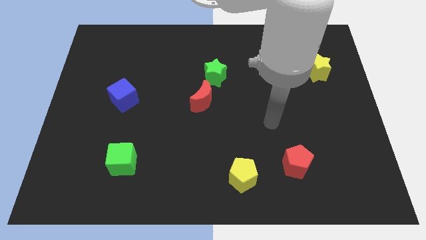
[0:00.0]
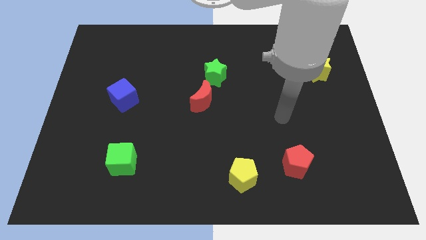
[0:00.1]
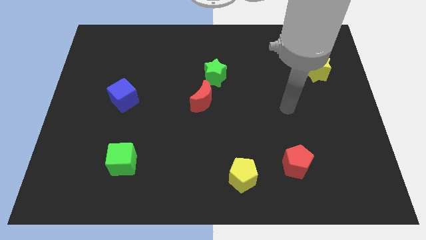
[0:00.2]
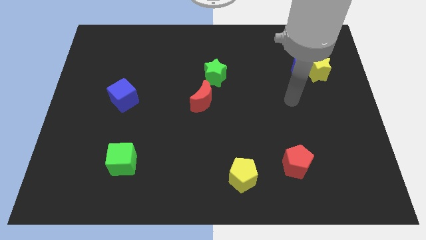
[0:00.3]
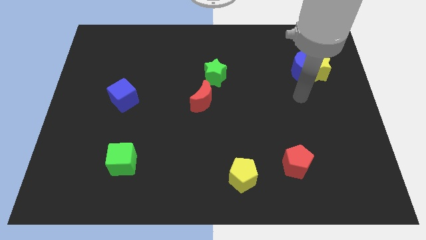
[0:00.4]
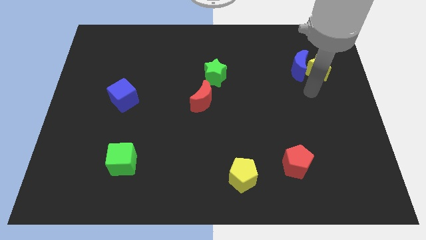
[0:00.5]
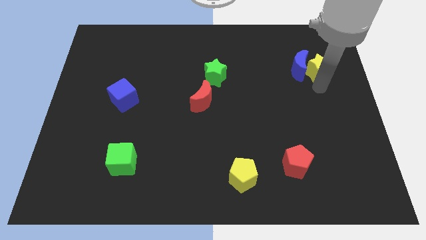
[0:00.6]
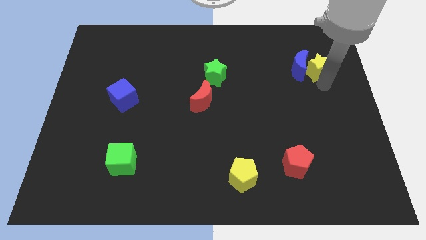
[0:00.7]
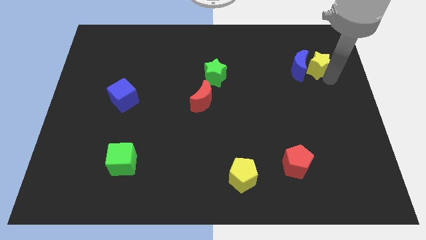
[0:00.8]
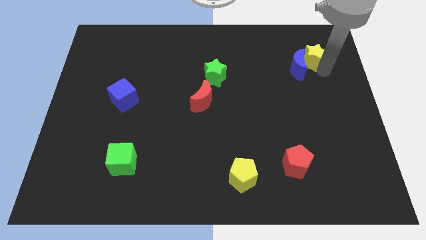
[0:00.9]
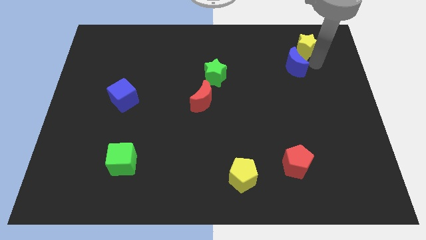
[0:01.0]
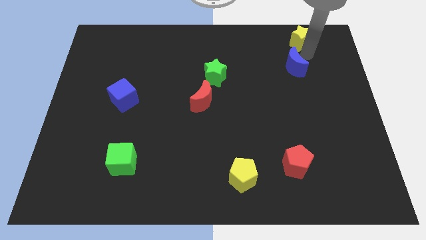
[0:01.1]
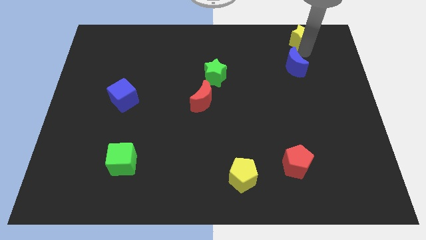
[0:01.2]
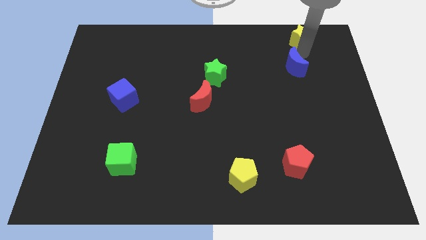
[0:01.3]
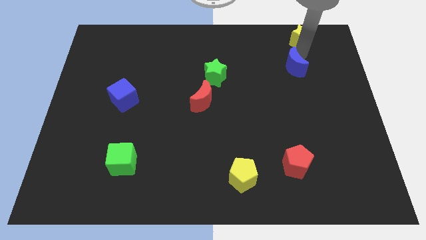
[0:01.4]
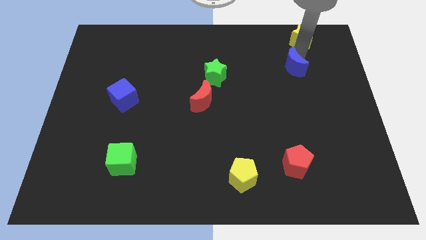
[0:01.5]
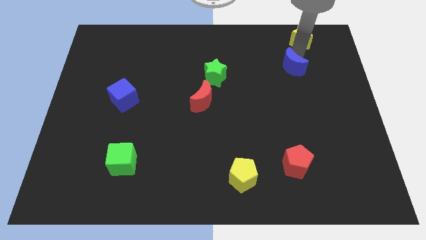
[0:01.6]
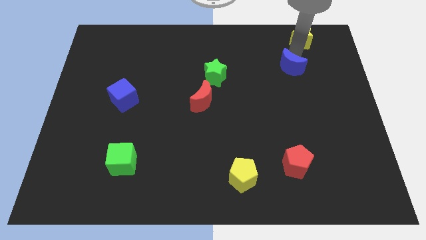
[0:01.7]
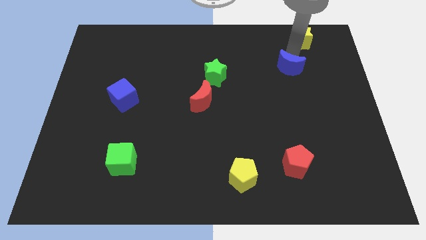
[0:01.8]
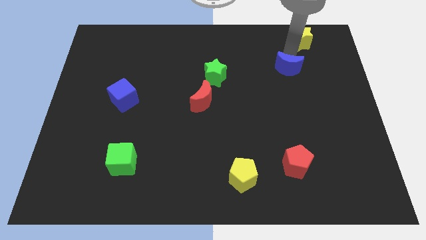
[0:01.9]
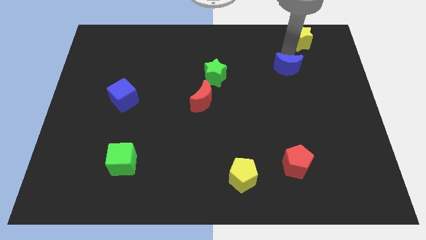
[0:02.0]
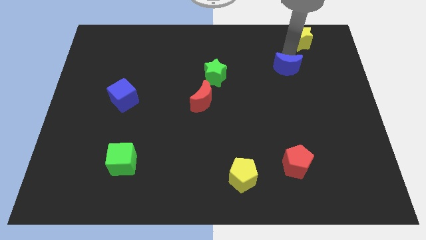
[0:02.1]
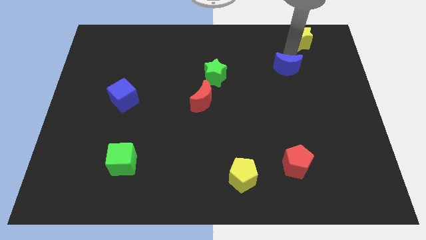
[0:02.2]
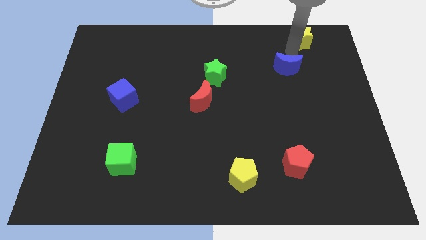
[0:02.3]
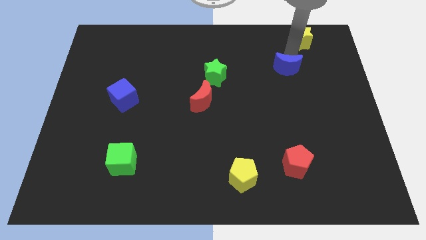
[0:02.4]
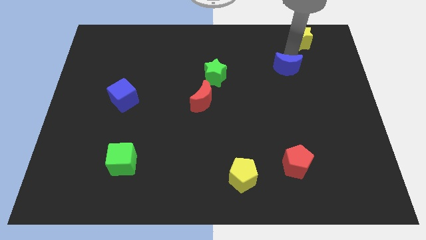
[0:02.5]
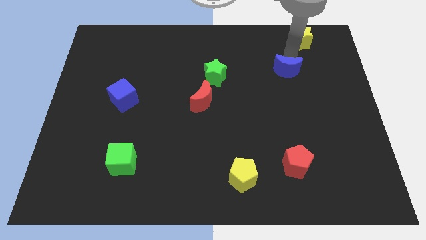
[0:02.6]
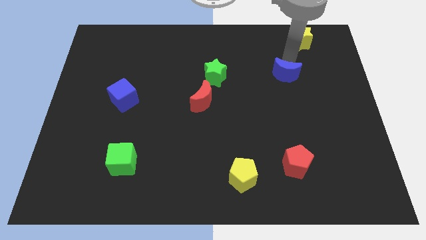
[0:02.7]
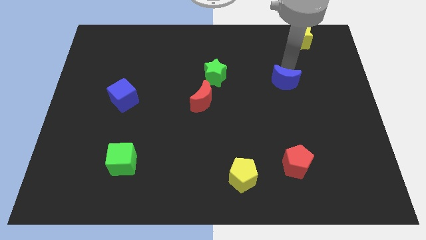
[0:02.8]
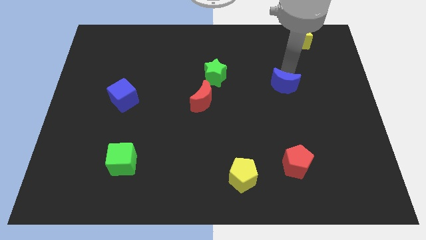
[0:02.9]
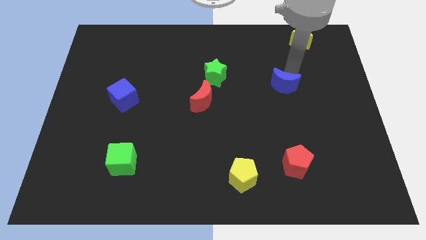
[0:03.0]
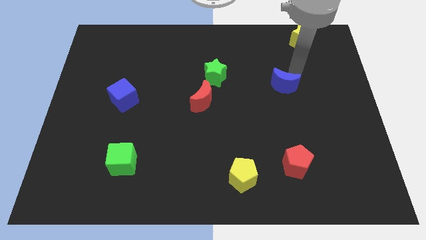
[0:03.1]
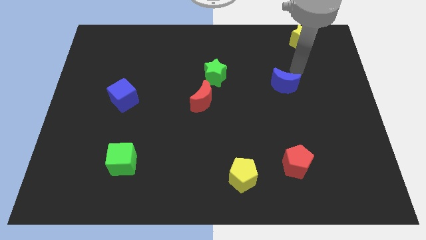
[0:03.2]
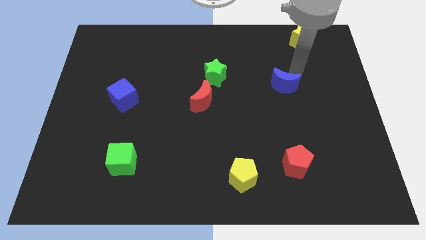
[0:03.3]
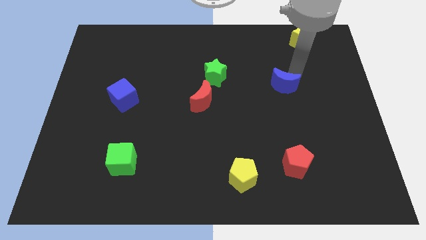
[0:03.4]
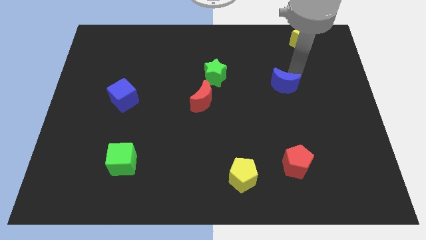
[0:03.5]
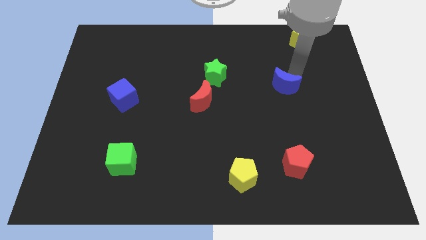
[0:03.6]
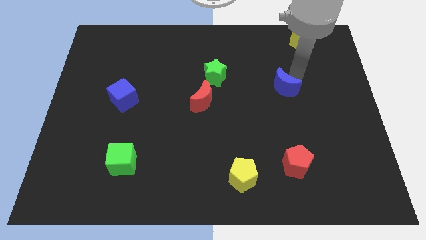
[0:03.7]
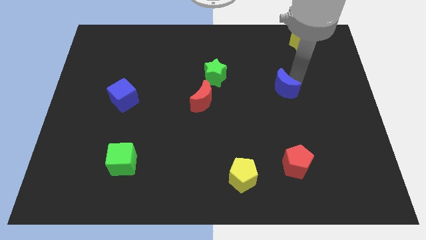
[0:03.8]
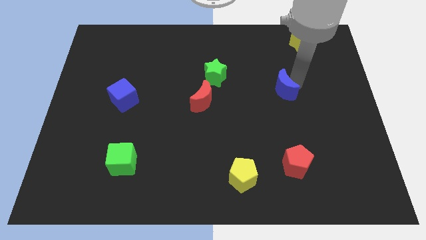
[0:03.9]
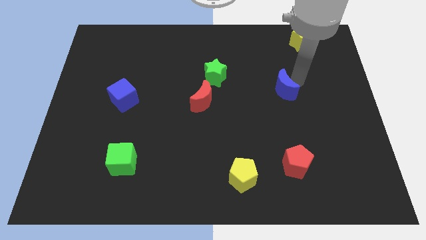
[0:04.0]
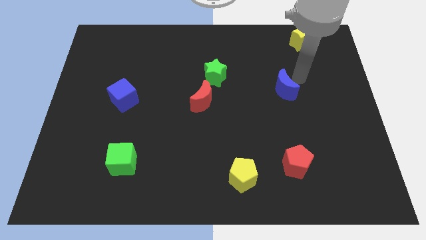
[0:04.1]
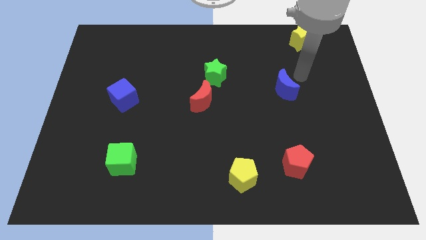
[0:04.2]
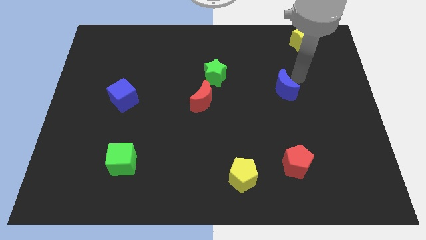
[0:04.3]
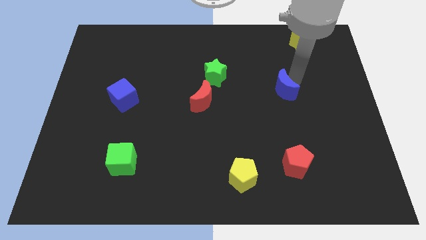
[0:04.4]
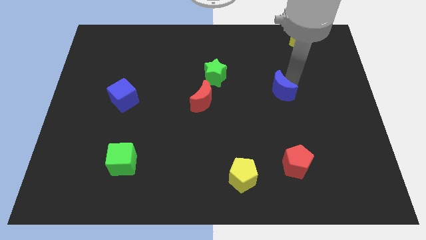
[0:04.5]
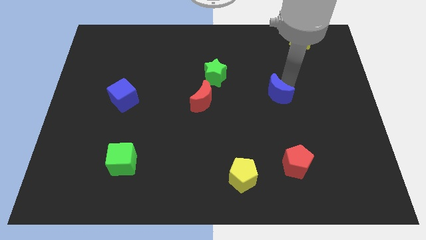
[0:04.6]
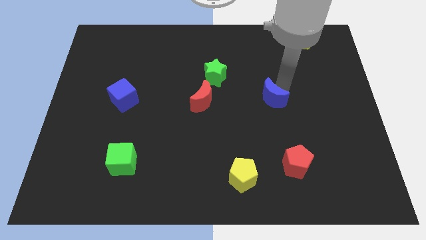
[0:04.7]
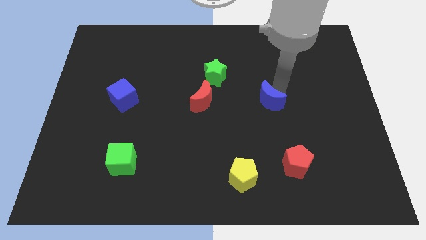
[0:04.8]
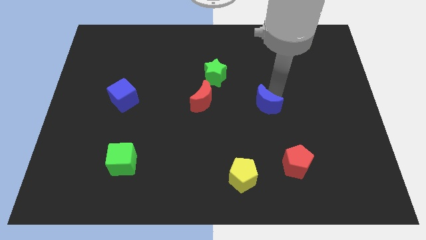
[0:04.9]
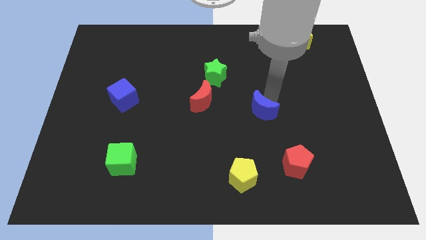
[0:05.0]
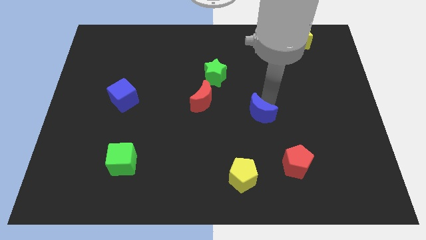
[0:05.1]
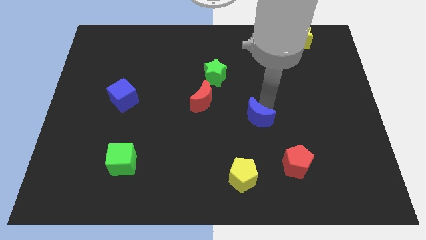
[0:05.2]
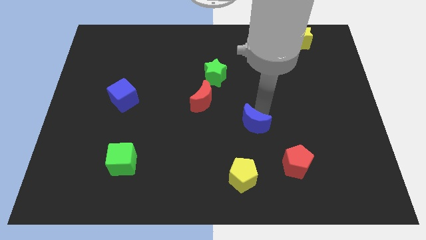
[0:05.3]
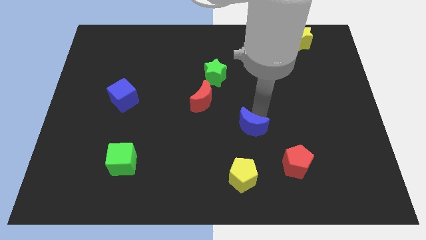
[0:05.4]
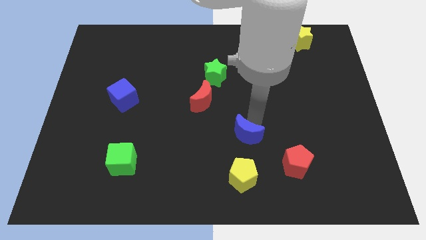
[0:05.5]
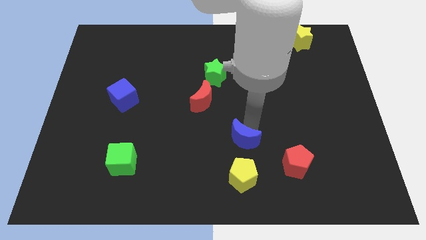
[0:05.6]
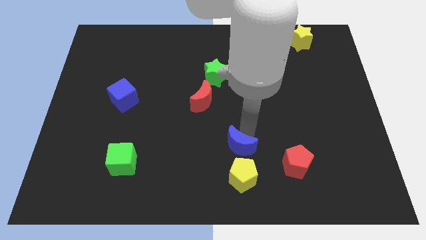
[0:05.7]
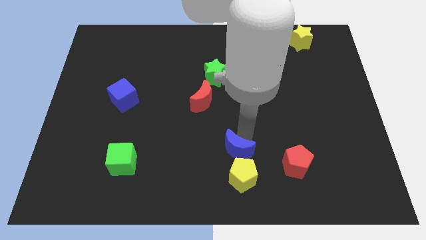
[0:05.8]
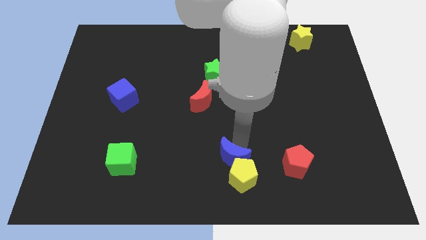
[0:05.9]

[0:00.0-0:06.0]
push the blue moon to the bottom

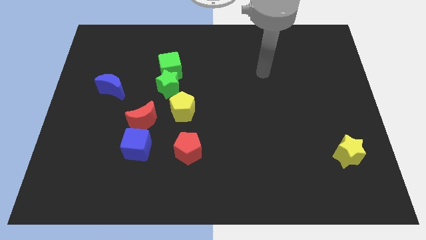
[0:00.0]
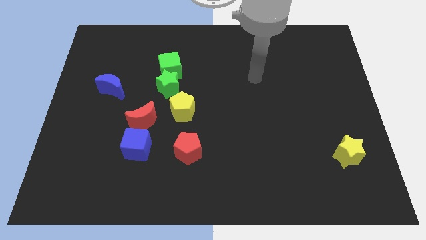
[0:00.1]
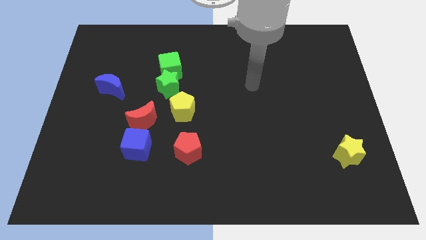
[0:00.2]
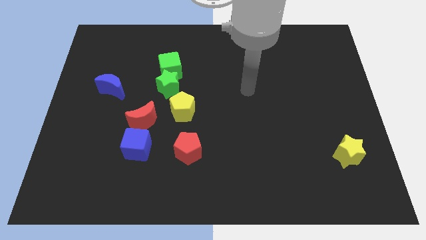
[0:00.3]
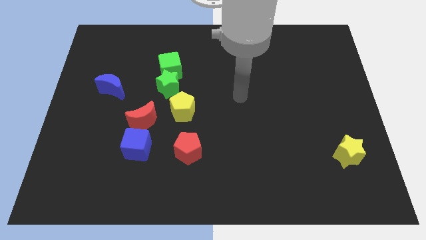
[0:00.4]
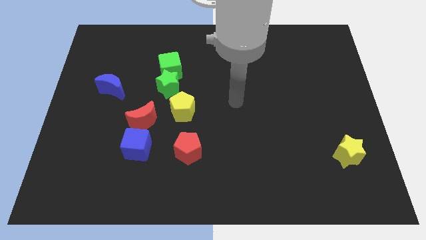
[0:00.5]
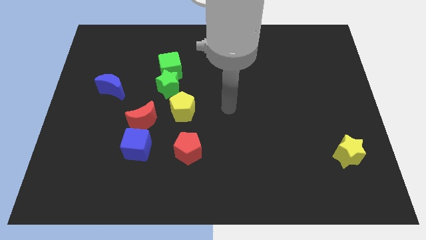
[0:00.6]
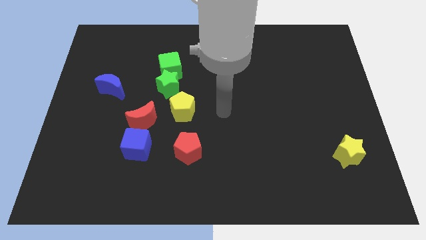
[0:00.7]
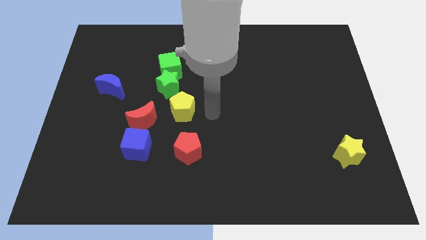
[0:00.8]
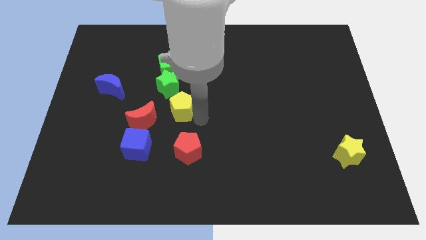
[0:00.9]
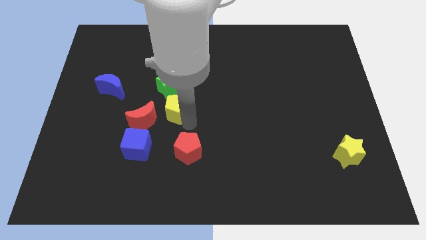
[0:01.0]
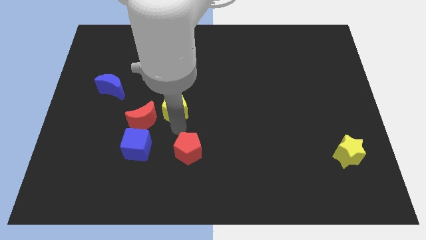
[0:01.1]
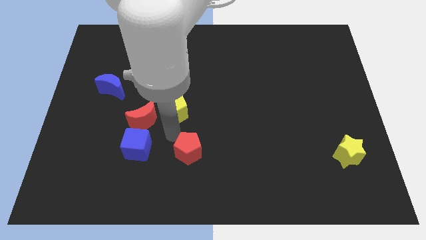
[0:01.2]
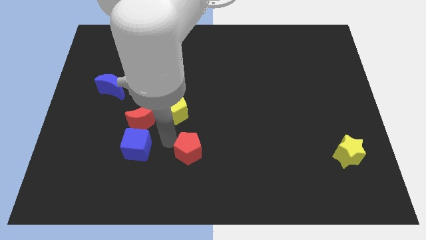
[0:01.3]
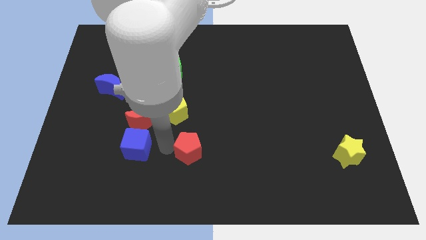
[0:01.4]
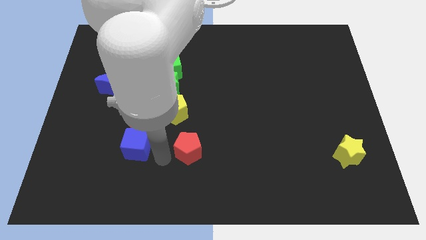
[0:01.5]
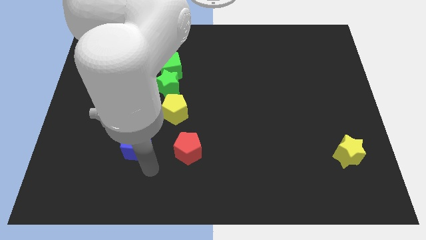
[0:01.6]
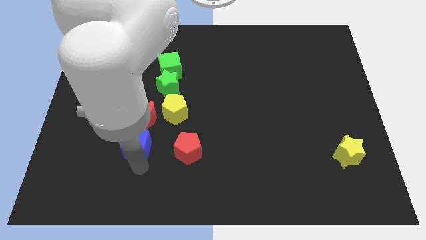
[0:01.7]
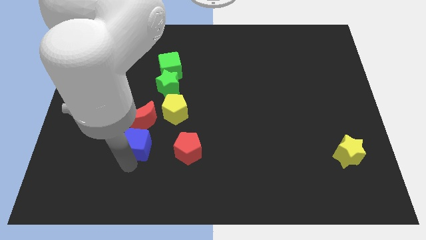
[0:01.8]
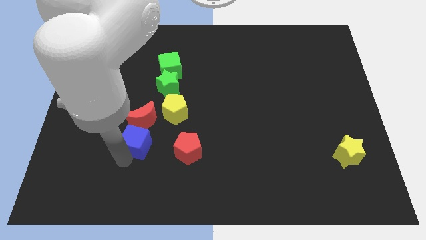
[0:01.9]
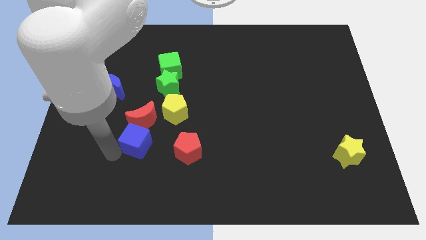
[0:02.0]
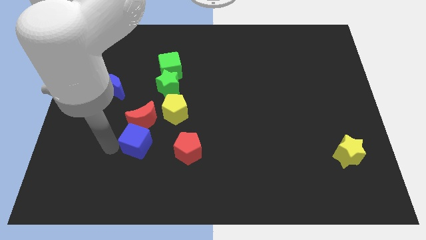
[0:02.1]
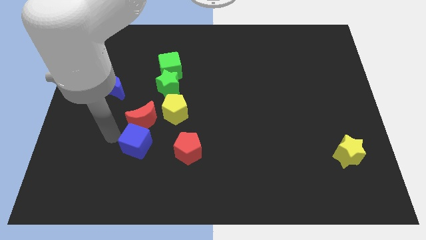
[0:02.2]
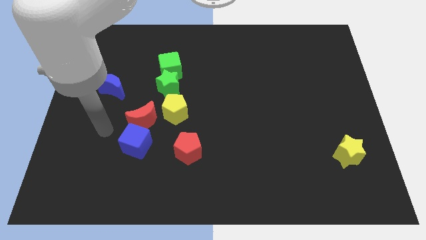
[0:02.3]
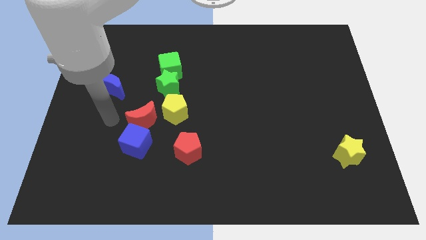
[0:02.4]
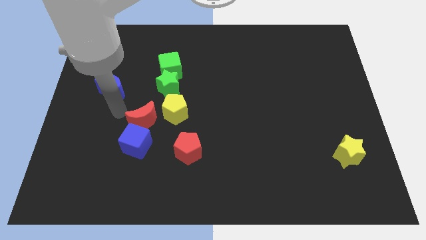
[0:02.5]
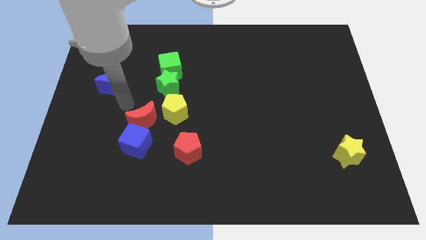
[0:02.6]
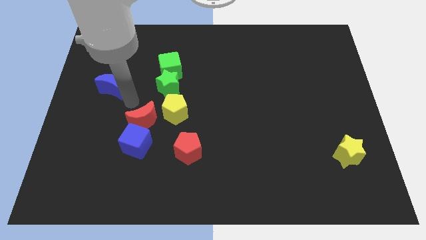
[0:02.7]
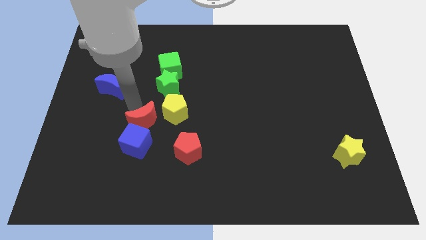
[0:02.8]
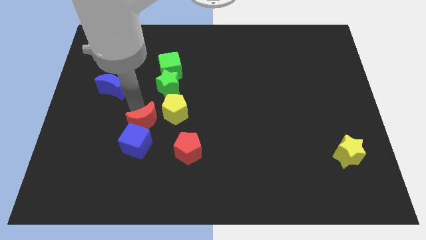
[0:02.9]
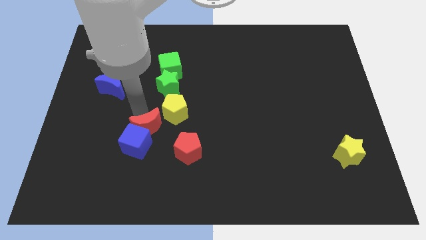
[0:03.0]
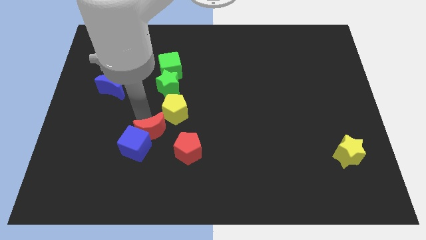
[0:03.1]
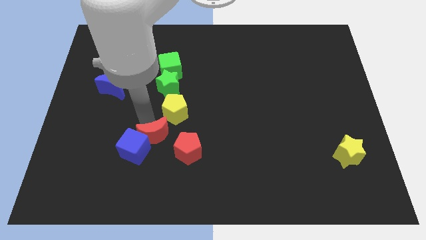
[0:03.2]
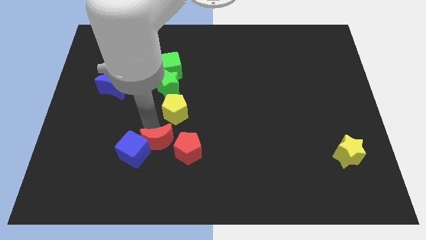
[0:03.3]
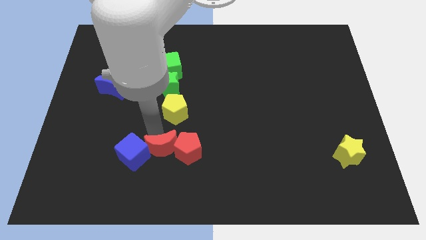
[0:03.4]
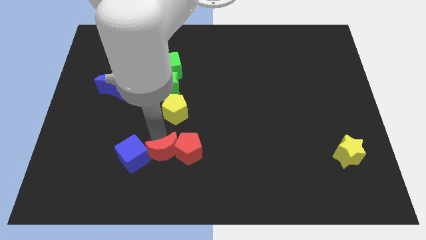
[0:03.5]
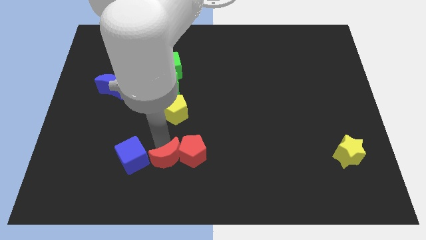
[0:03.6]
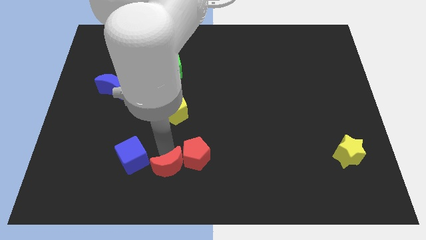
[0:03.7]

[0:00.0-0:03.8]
put the red moon to the bottom side
